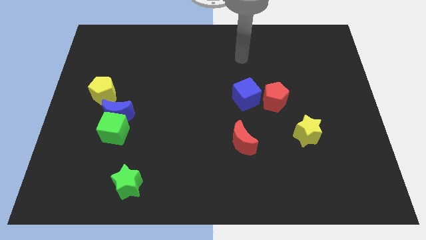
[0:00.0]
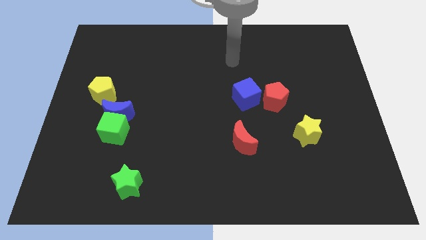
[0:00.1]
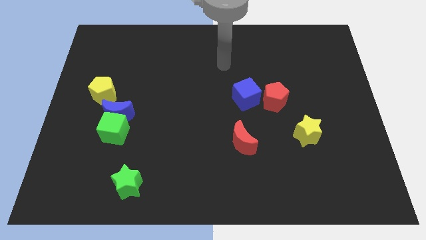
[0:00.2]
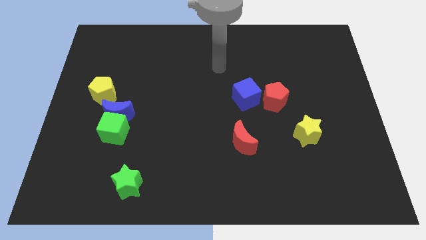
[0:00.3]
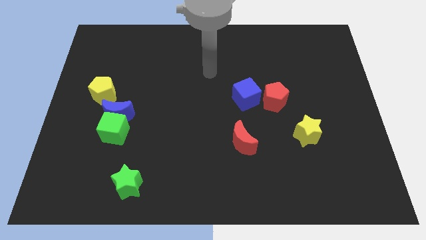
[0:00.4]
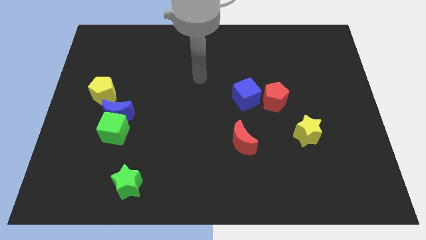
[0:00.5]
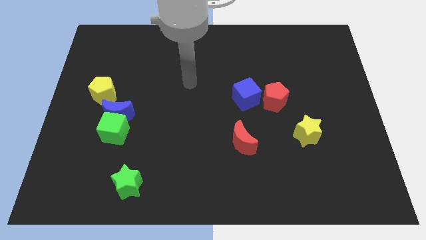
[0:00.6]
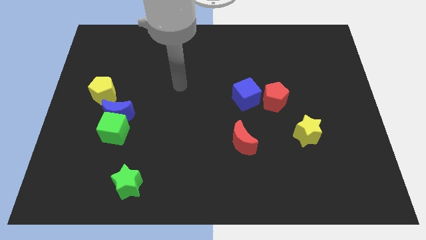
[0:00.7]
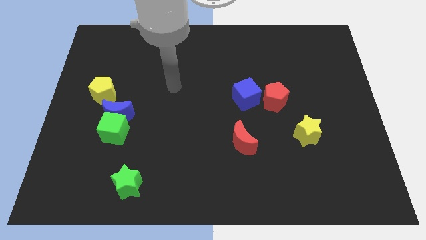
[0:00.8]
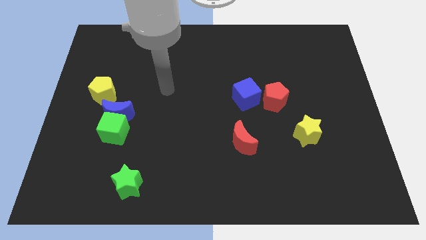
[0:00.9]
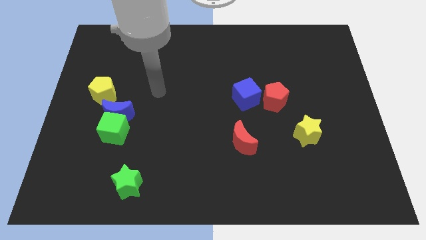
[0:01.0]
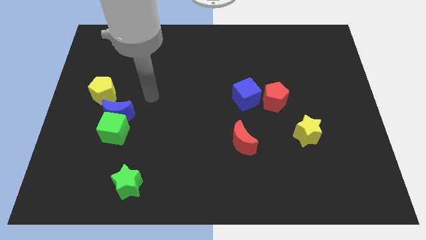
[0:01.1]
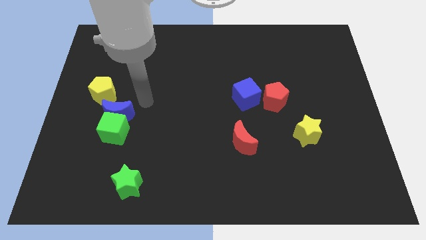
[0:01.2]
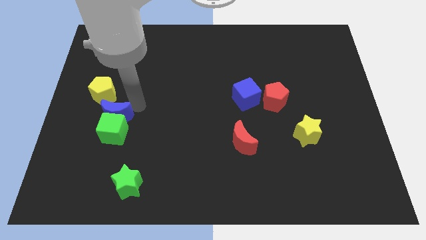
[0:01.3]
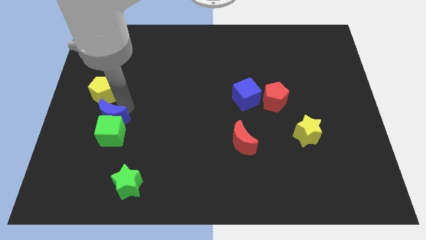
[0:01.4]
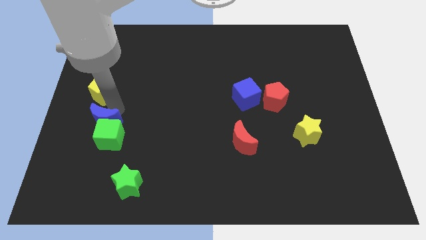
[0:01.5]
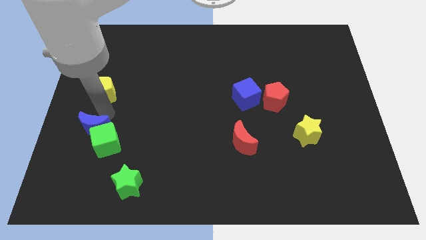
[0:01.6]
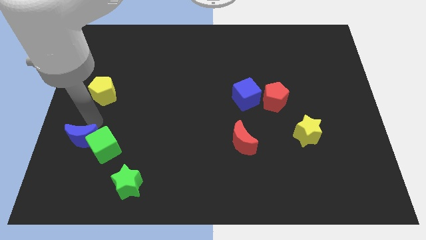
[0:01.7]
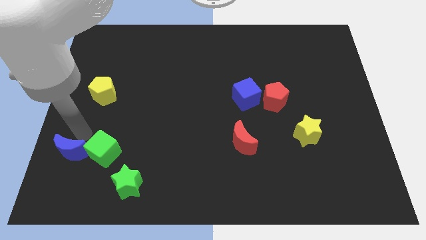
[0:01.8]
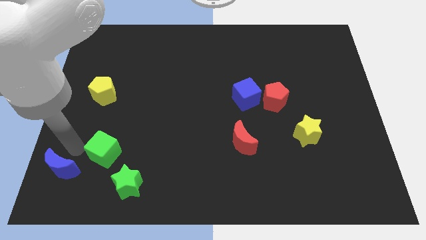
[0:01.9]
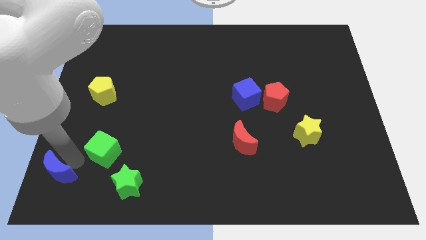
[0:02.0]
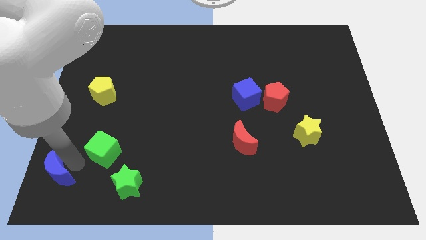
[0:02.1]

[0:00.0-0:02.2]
separate the green cube from the blue moon

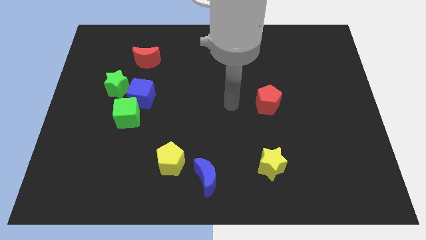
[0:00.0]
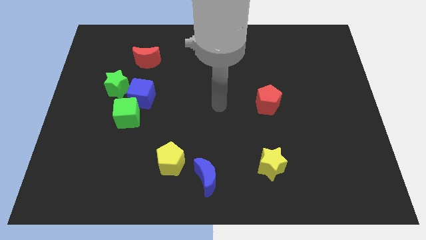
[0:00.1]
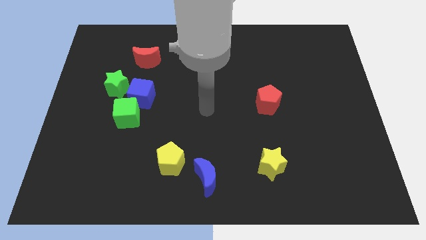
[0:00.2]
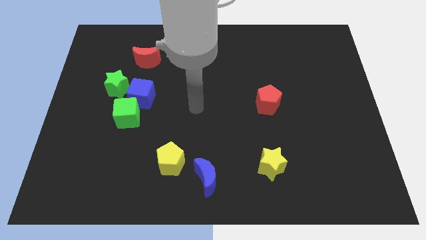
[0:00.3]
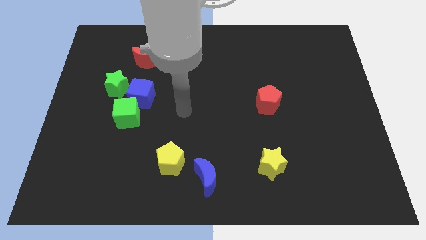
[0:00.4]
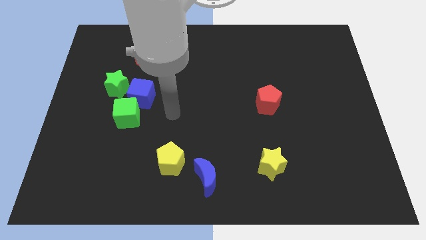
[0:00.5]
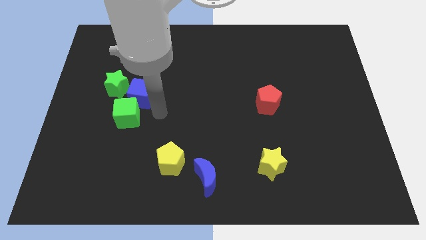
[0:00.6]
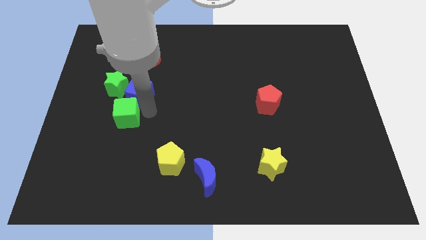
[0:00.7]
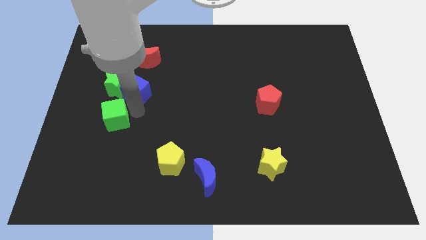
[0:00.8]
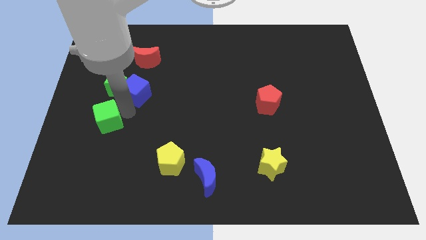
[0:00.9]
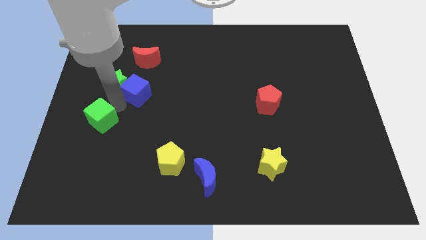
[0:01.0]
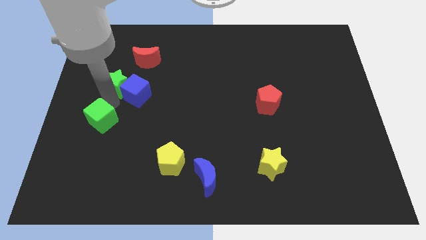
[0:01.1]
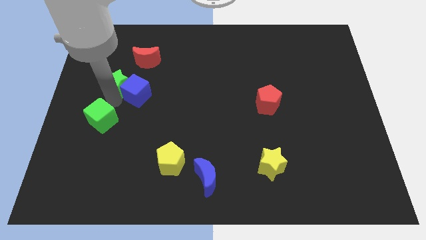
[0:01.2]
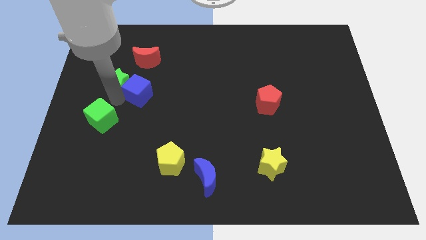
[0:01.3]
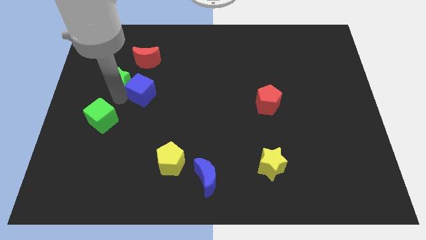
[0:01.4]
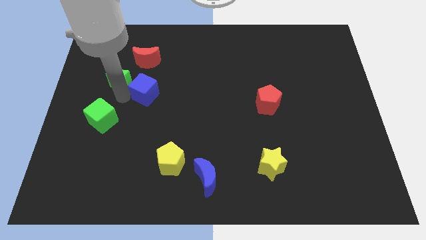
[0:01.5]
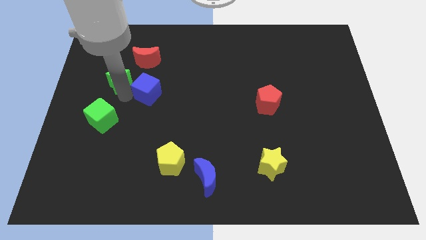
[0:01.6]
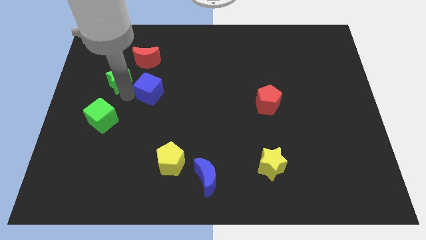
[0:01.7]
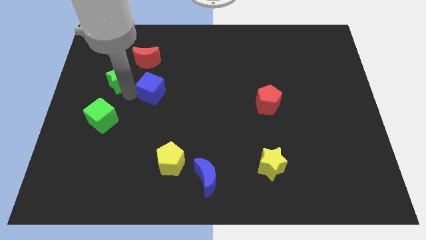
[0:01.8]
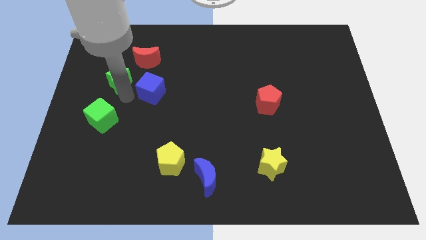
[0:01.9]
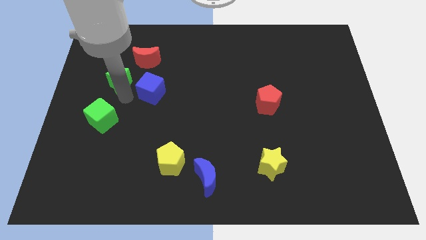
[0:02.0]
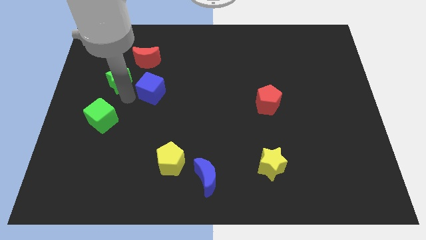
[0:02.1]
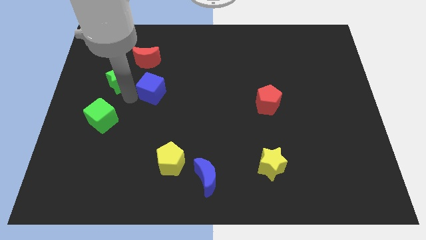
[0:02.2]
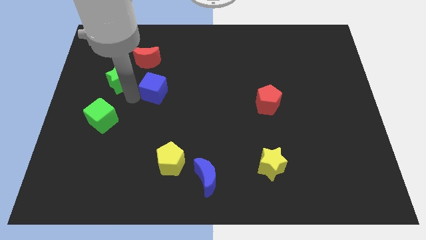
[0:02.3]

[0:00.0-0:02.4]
separate the blue cube from the green cube and green star

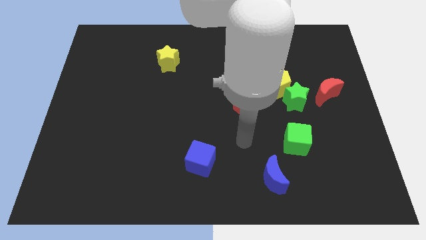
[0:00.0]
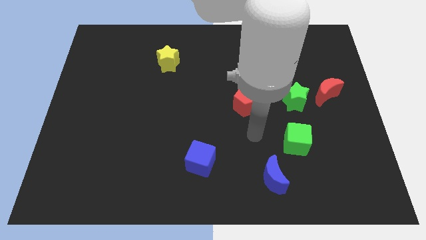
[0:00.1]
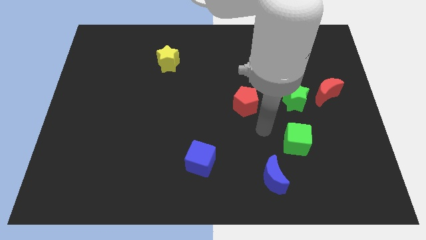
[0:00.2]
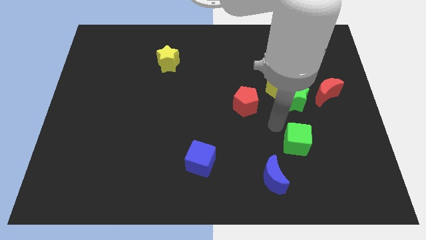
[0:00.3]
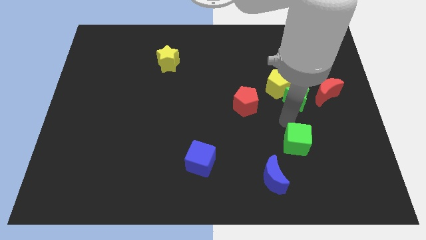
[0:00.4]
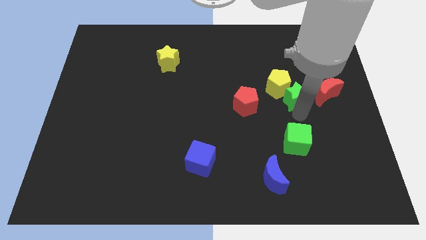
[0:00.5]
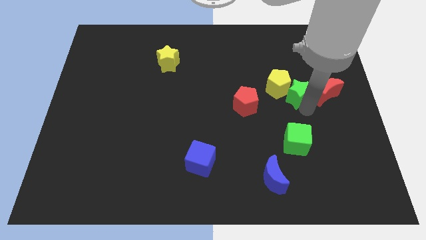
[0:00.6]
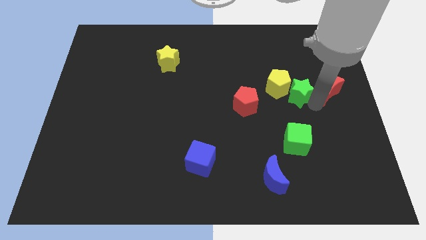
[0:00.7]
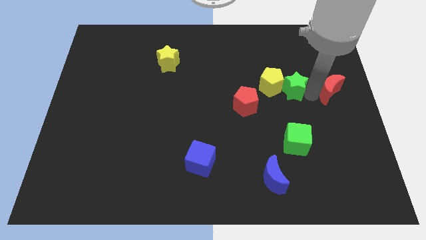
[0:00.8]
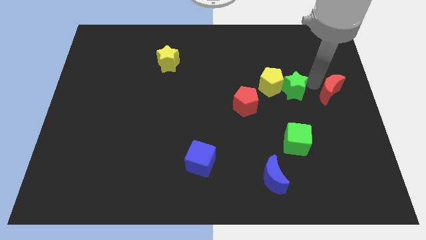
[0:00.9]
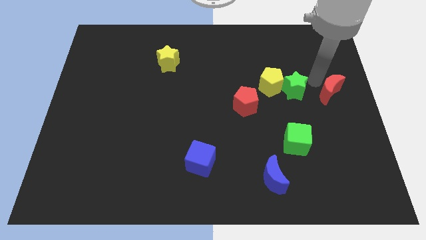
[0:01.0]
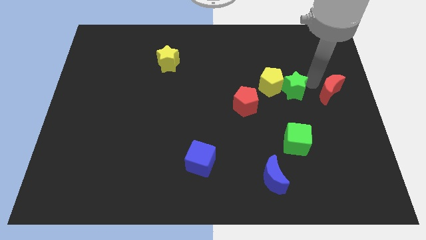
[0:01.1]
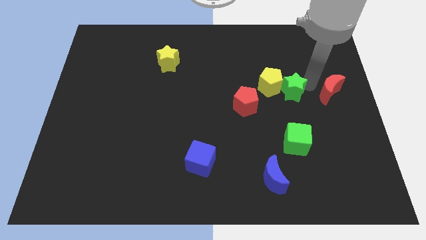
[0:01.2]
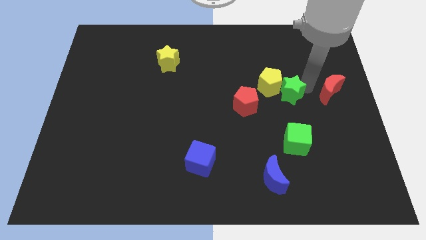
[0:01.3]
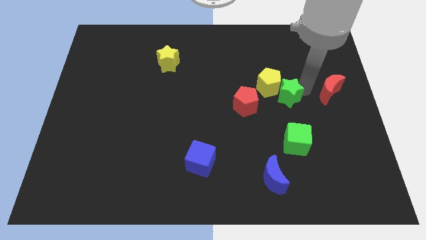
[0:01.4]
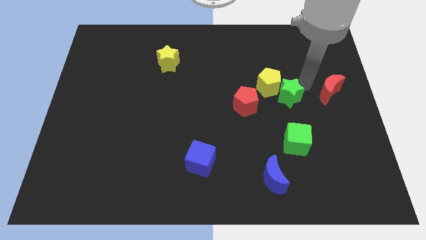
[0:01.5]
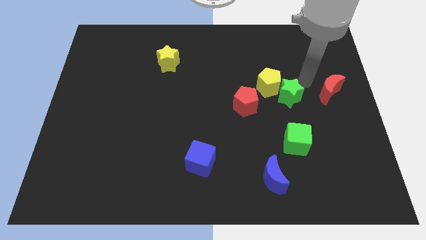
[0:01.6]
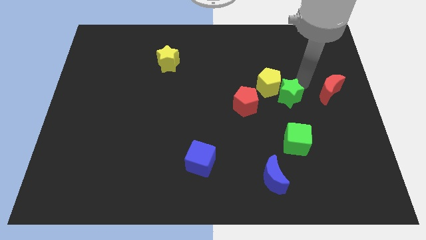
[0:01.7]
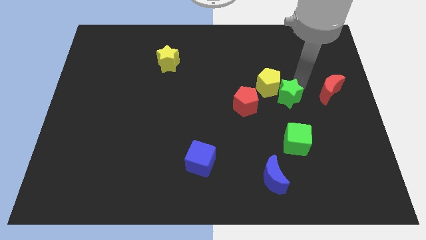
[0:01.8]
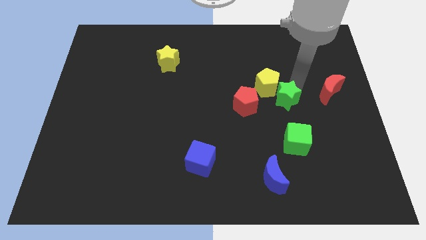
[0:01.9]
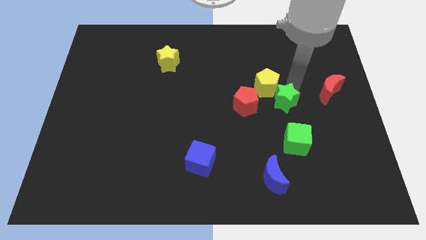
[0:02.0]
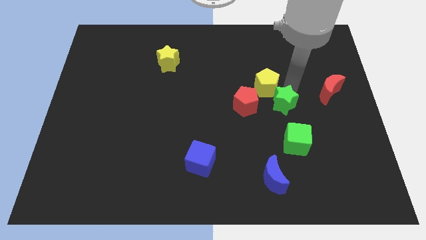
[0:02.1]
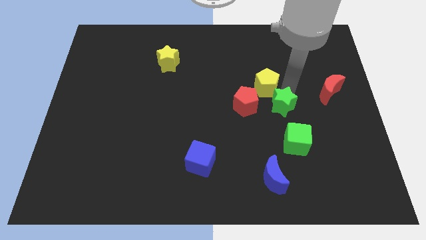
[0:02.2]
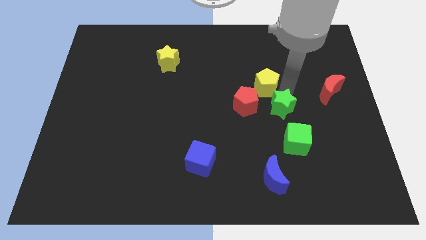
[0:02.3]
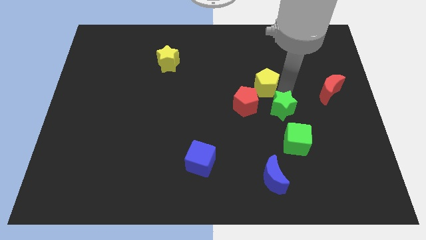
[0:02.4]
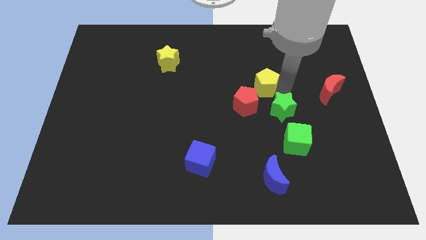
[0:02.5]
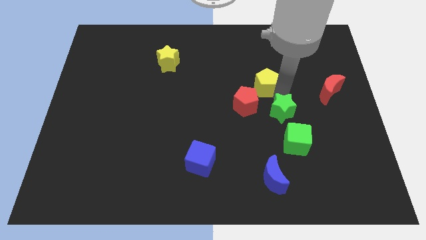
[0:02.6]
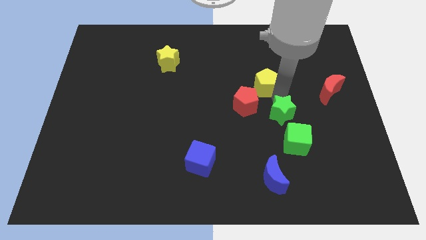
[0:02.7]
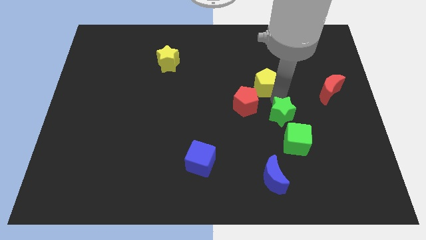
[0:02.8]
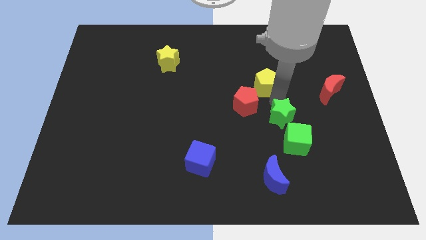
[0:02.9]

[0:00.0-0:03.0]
move the green star away from the yellow pentagon and red moon

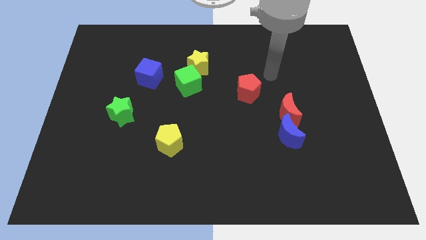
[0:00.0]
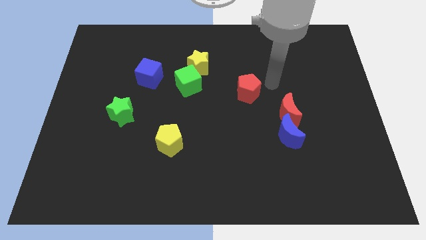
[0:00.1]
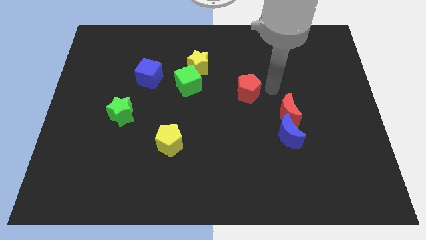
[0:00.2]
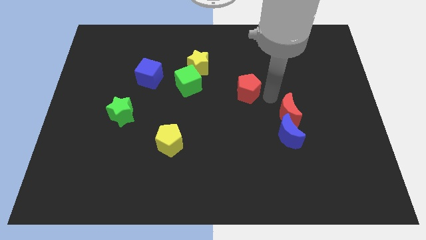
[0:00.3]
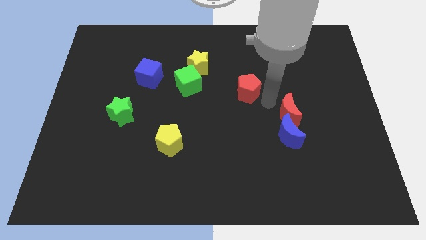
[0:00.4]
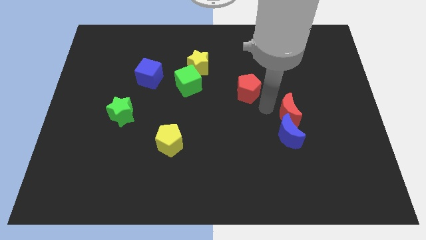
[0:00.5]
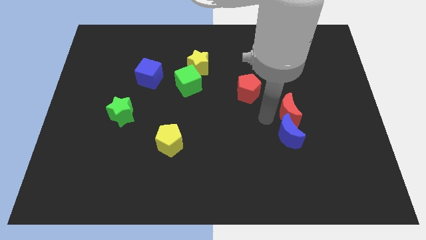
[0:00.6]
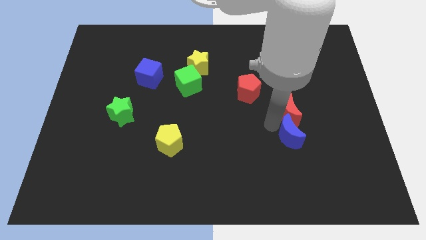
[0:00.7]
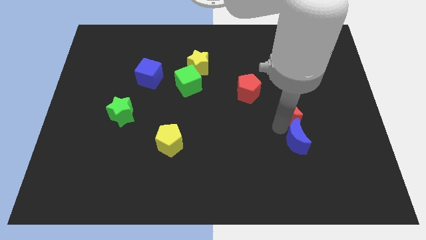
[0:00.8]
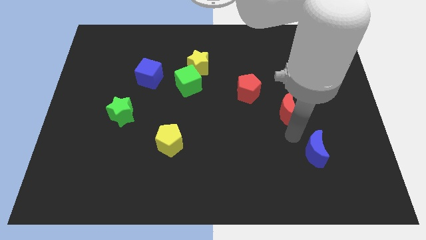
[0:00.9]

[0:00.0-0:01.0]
separate the red moon from the blue moon

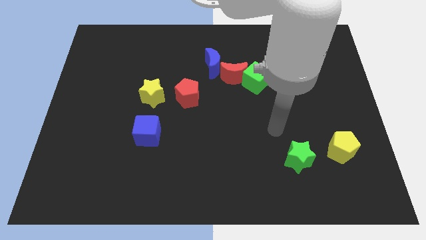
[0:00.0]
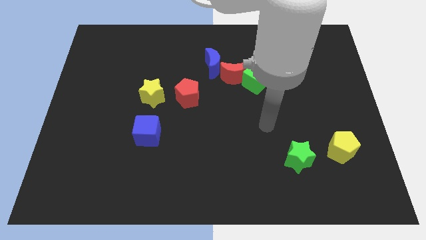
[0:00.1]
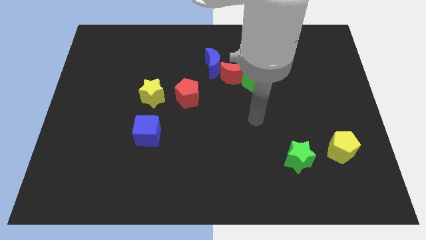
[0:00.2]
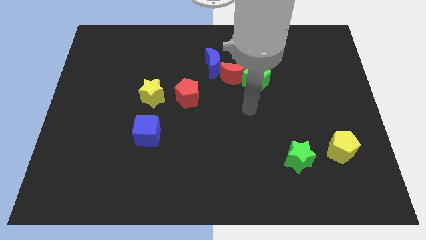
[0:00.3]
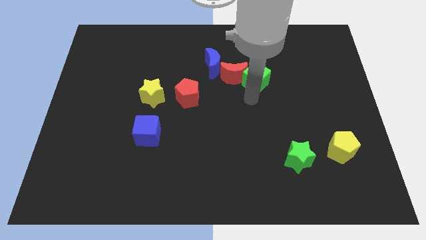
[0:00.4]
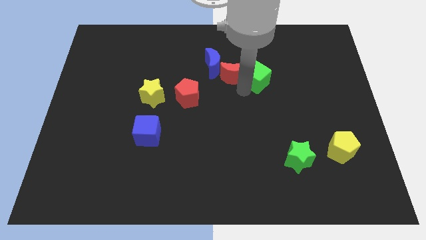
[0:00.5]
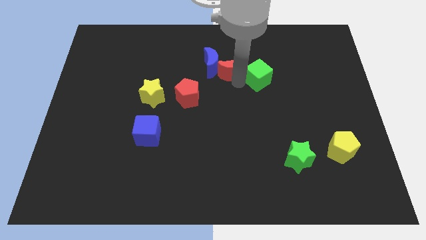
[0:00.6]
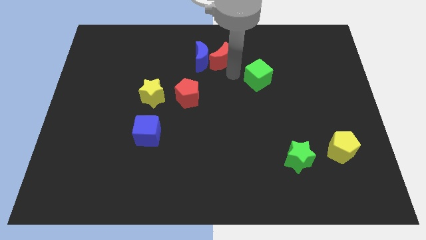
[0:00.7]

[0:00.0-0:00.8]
pull the green cube apart from the red moon
